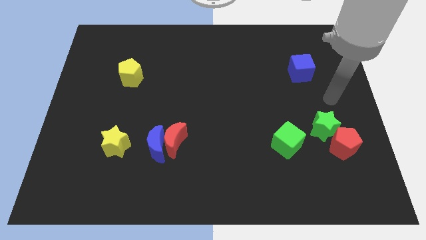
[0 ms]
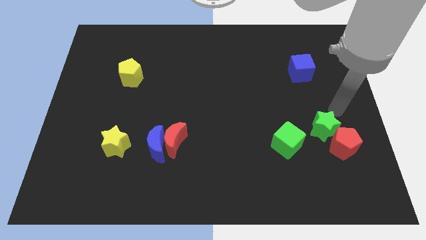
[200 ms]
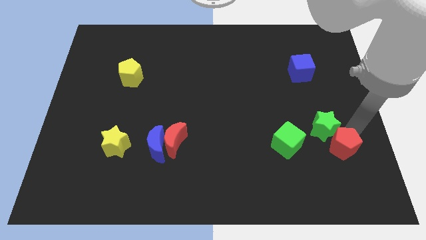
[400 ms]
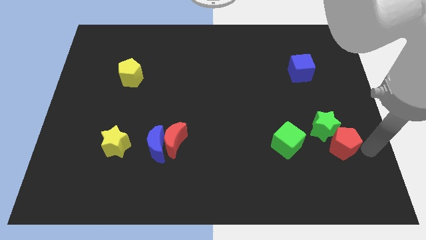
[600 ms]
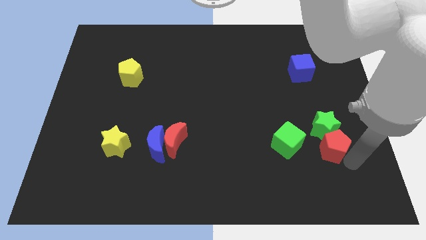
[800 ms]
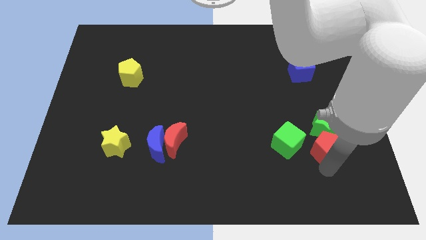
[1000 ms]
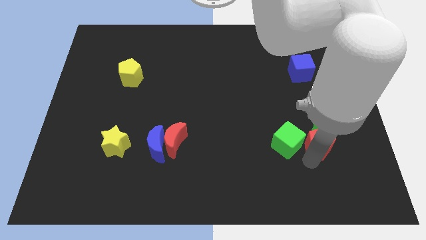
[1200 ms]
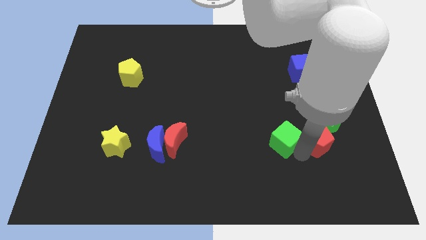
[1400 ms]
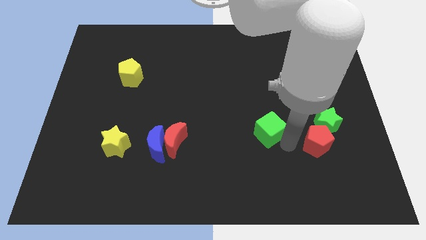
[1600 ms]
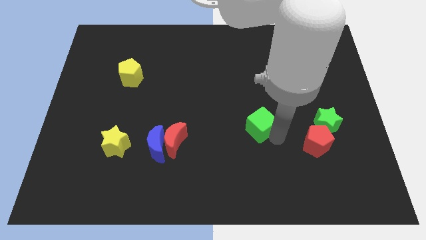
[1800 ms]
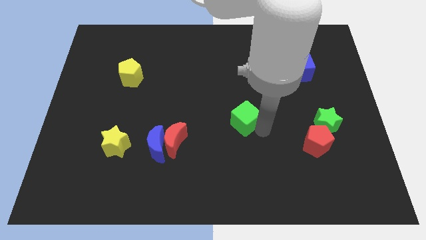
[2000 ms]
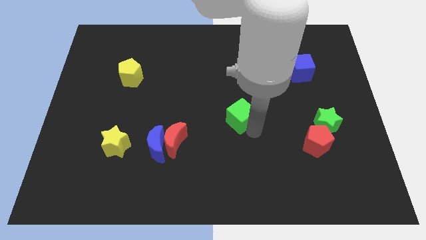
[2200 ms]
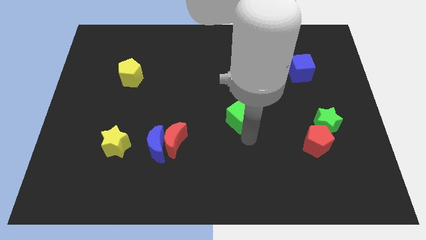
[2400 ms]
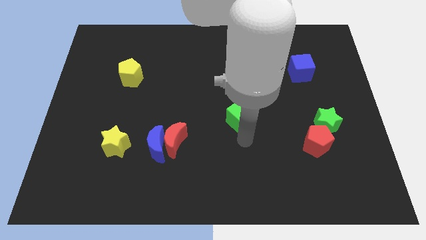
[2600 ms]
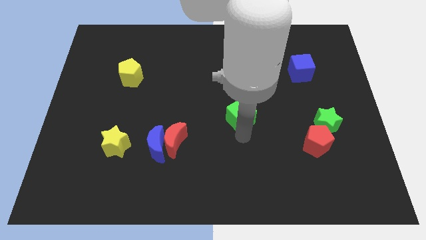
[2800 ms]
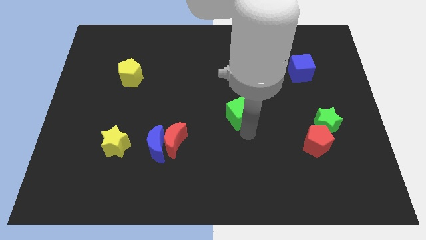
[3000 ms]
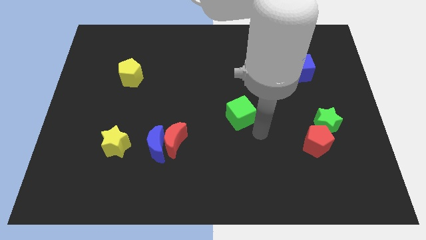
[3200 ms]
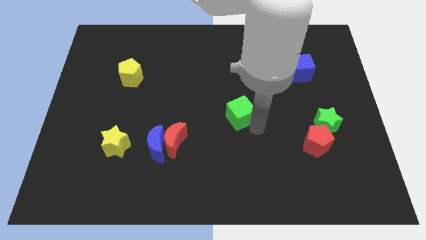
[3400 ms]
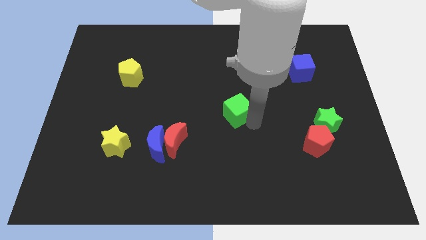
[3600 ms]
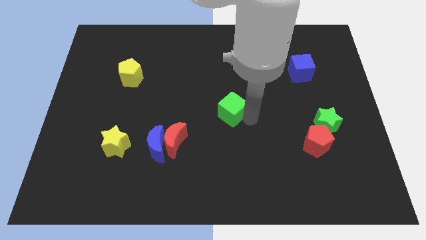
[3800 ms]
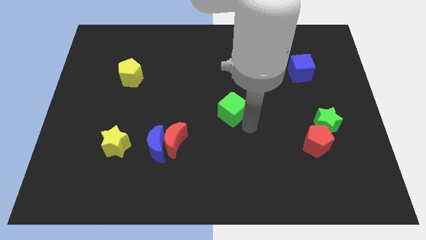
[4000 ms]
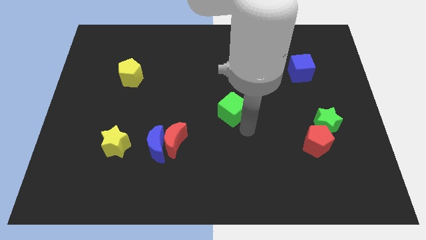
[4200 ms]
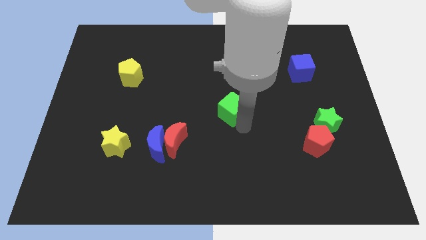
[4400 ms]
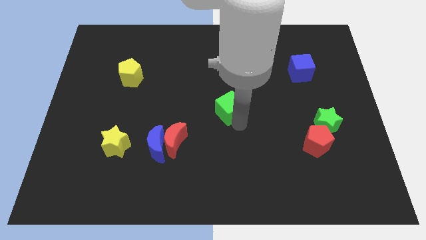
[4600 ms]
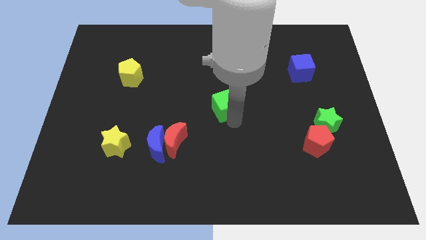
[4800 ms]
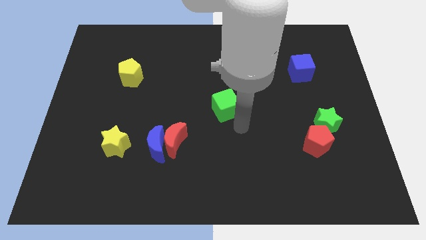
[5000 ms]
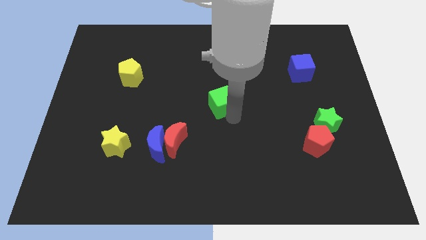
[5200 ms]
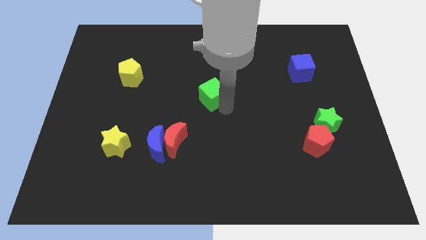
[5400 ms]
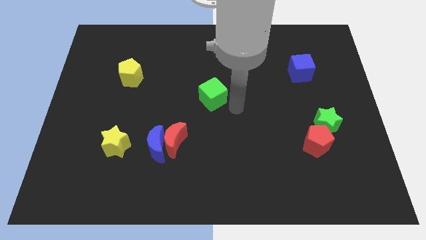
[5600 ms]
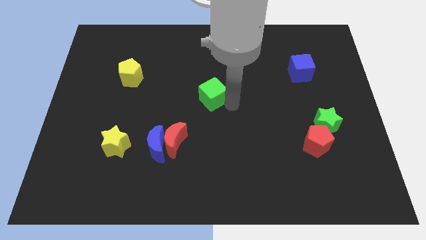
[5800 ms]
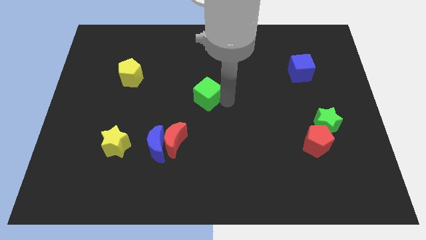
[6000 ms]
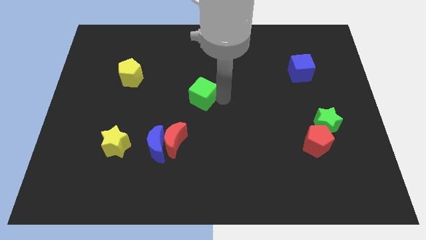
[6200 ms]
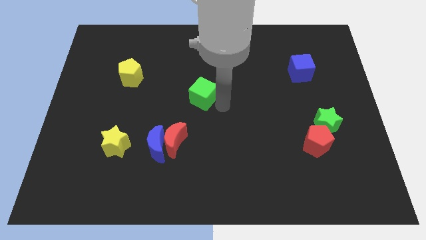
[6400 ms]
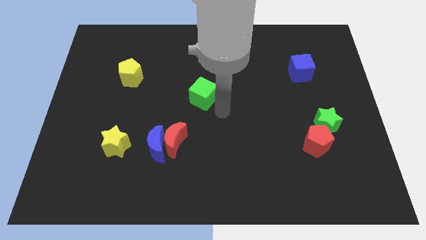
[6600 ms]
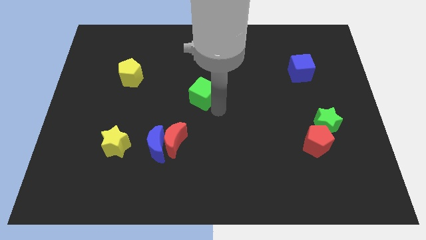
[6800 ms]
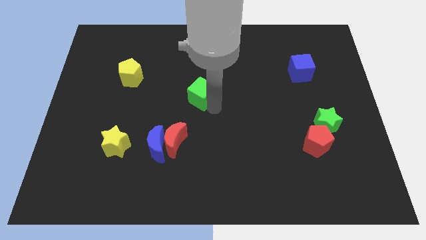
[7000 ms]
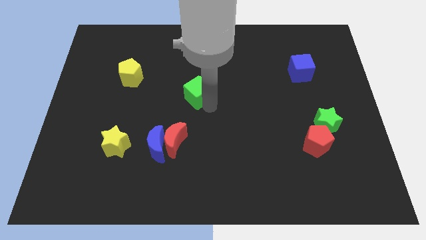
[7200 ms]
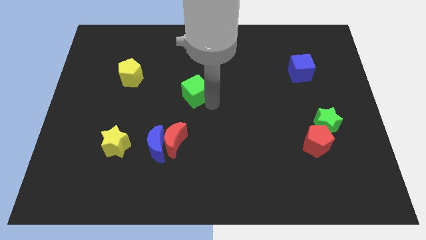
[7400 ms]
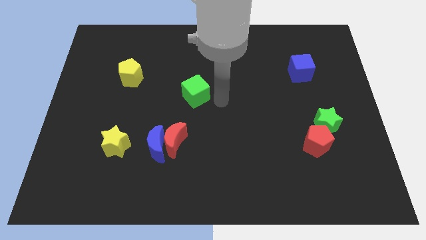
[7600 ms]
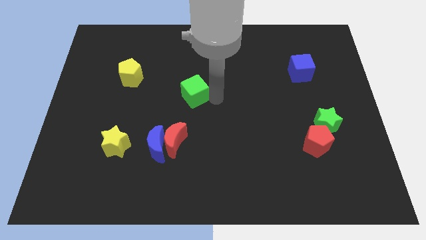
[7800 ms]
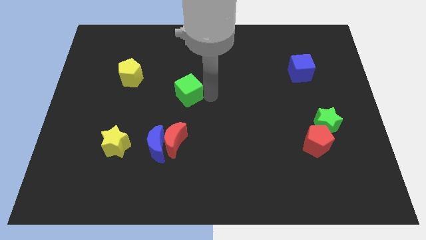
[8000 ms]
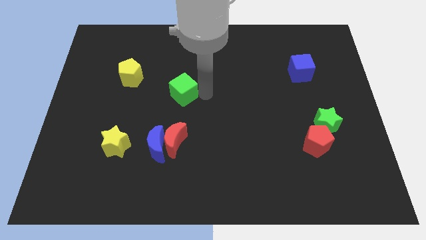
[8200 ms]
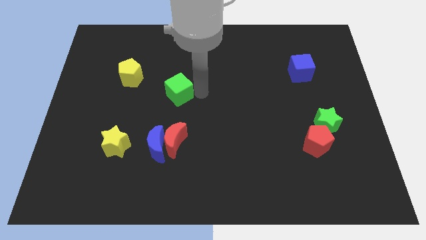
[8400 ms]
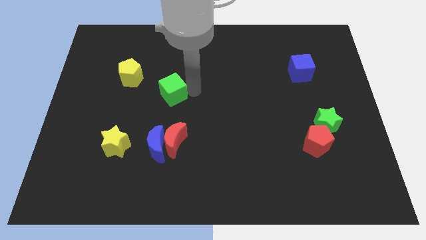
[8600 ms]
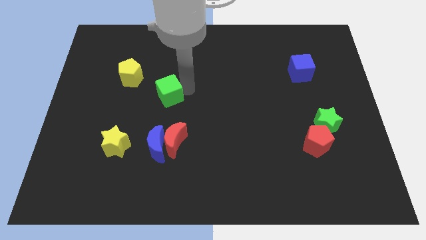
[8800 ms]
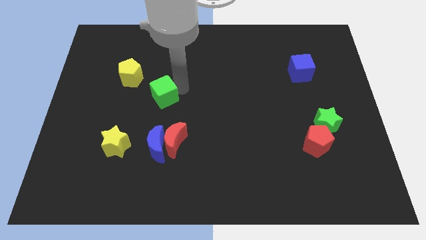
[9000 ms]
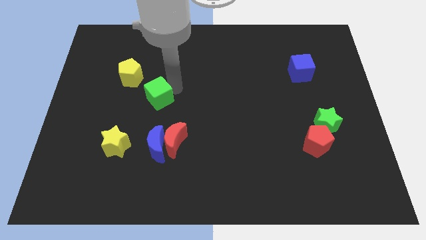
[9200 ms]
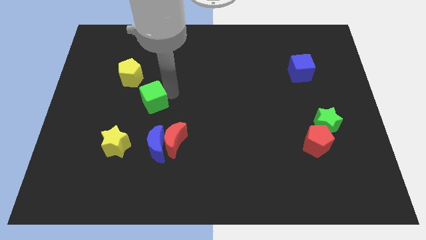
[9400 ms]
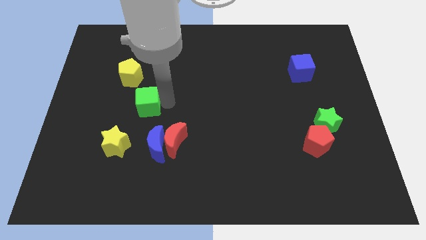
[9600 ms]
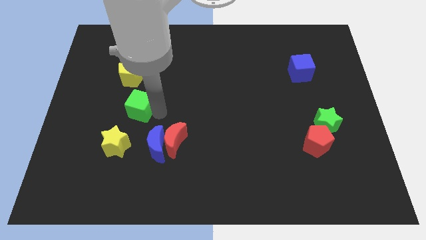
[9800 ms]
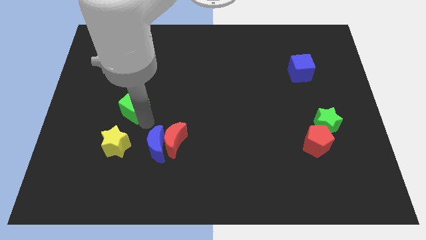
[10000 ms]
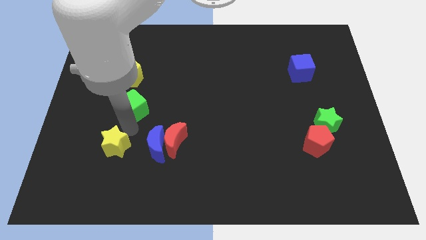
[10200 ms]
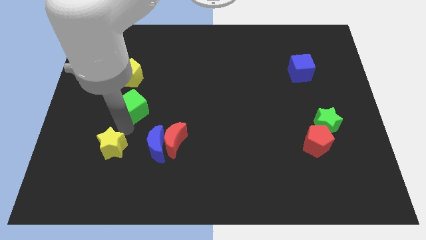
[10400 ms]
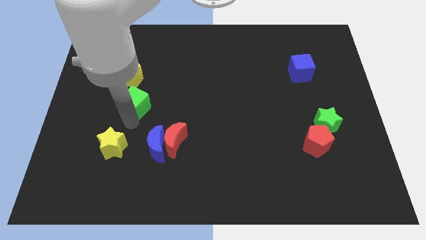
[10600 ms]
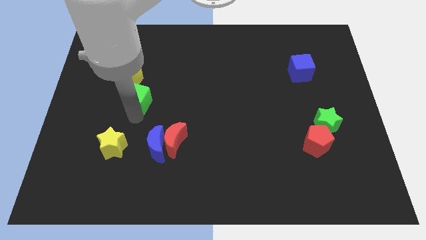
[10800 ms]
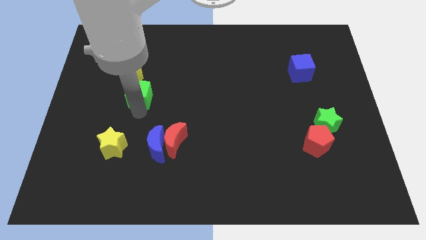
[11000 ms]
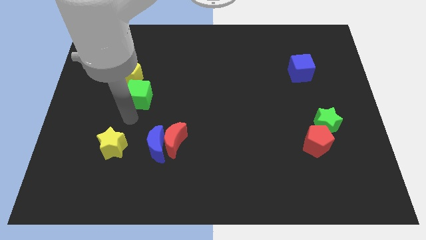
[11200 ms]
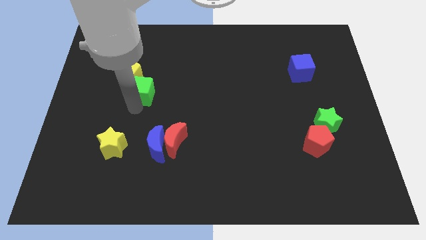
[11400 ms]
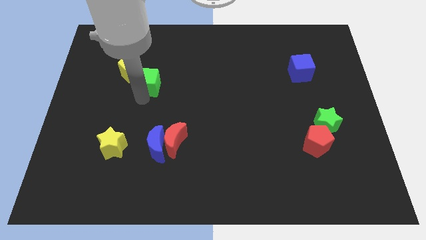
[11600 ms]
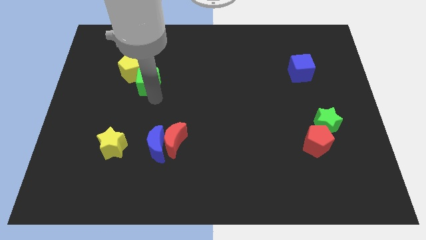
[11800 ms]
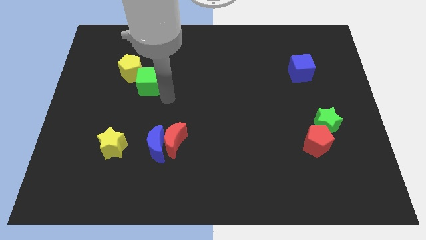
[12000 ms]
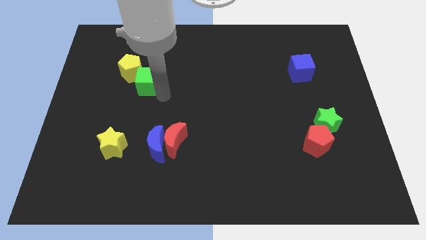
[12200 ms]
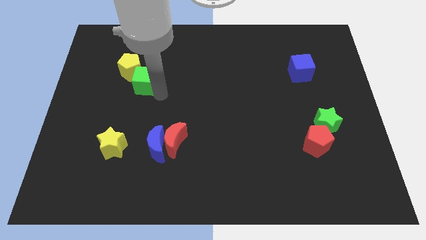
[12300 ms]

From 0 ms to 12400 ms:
push the green cube towards the yellow pentagon
